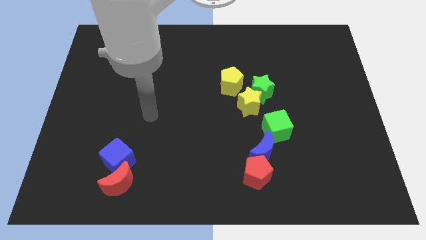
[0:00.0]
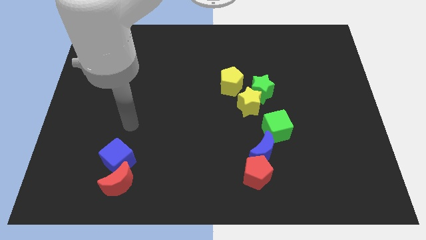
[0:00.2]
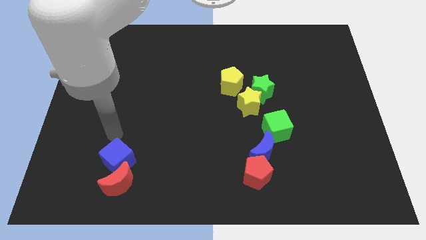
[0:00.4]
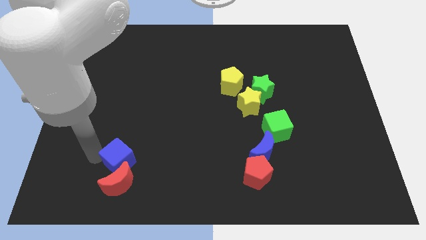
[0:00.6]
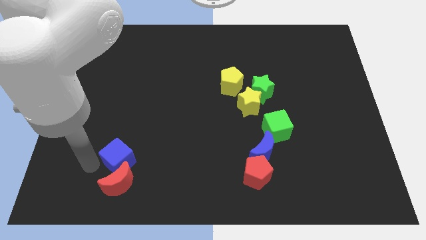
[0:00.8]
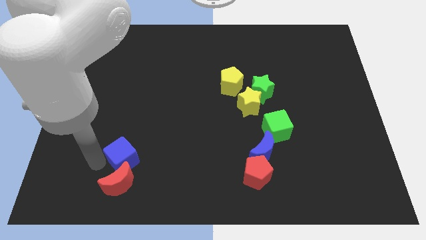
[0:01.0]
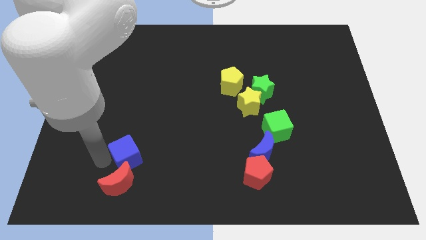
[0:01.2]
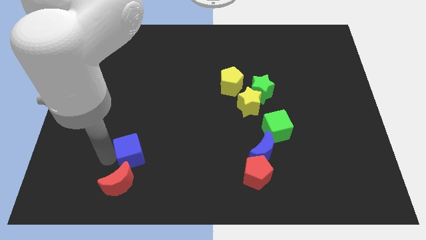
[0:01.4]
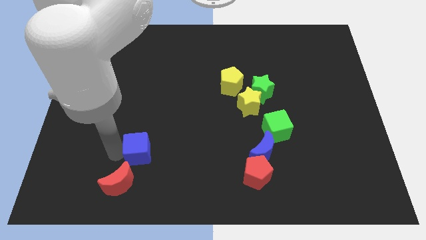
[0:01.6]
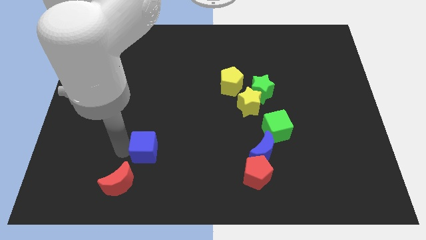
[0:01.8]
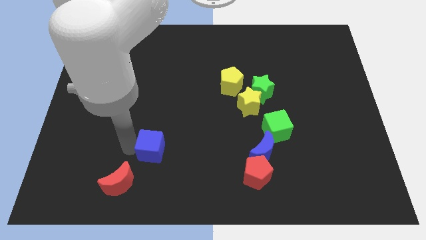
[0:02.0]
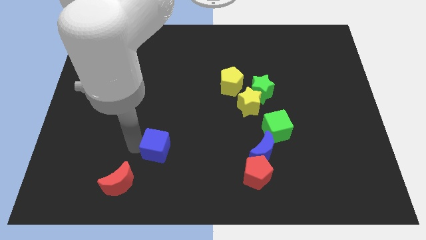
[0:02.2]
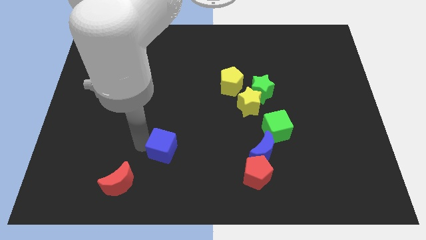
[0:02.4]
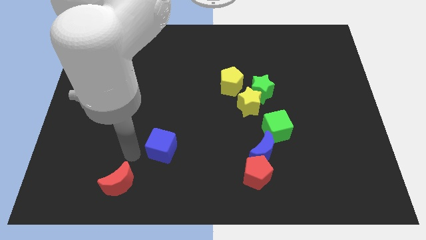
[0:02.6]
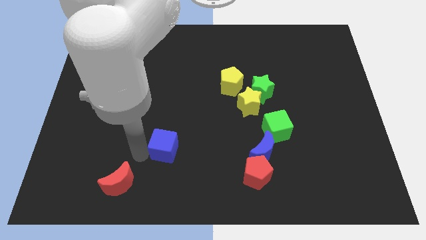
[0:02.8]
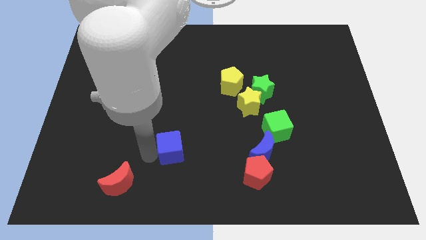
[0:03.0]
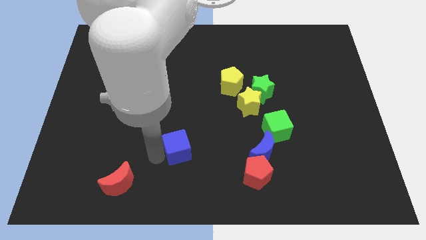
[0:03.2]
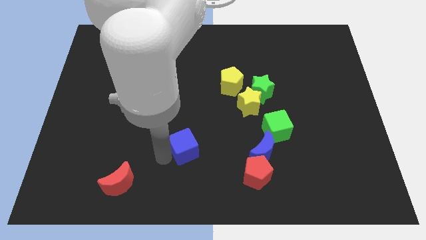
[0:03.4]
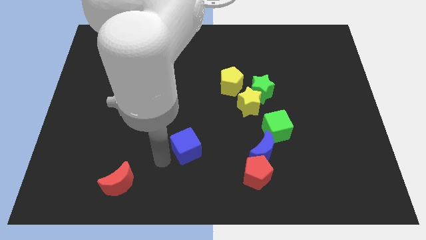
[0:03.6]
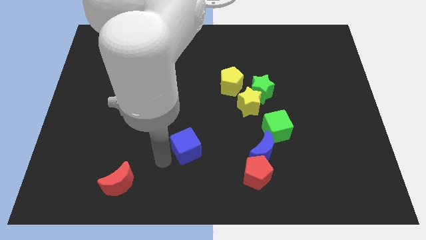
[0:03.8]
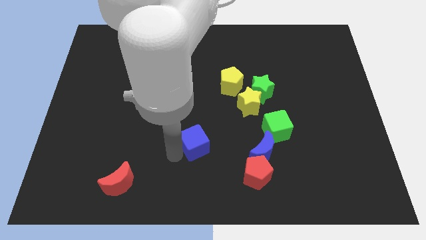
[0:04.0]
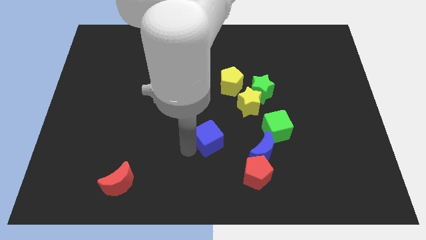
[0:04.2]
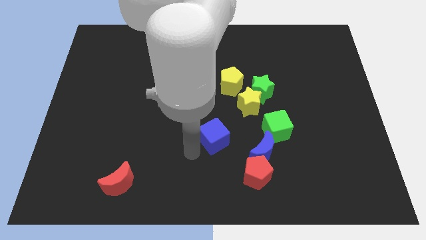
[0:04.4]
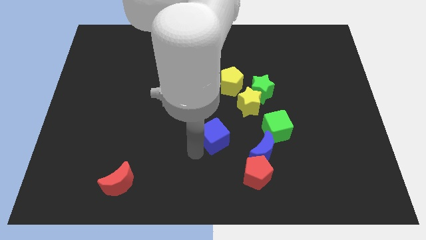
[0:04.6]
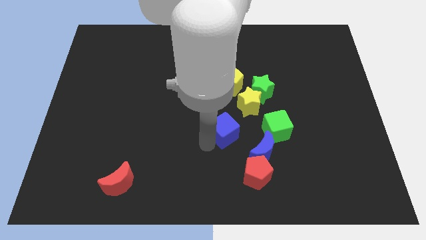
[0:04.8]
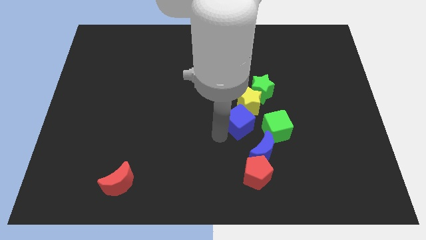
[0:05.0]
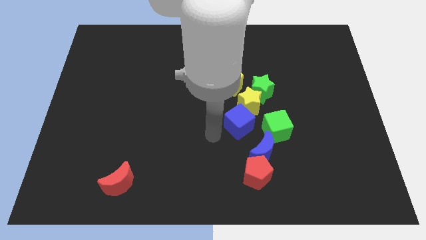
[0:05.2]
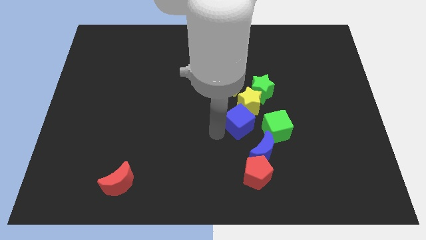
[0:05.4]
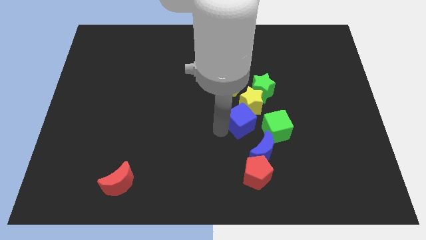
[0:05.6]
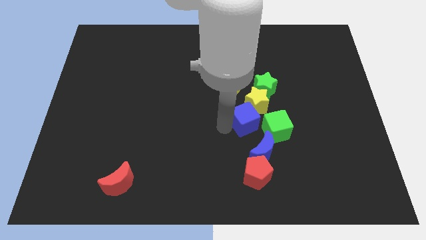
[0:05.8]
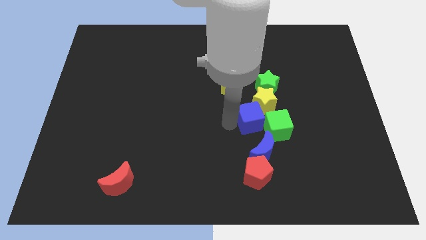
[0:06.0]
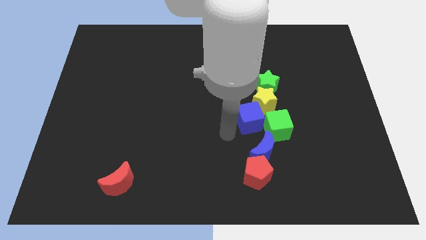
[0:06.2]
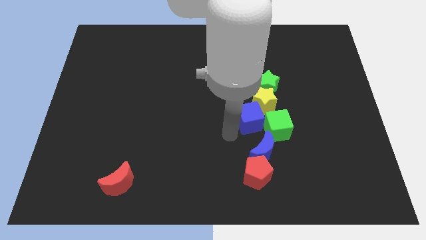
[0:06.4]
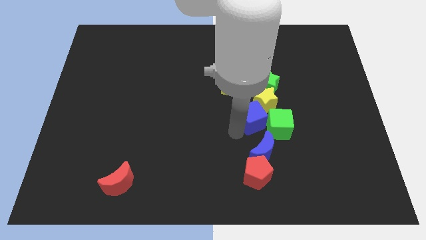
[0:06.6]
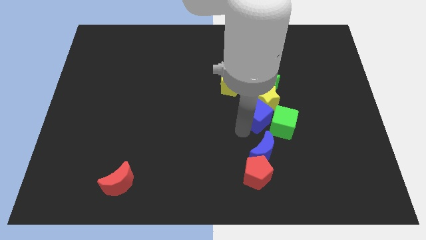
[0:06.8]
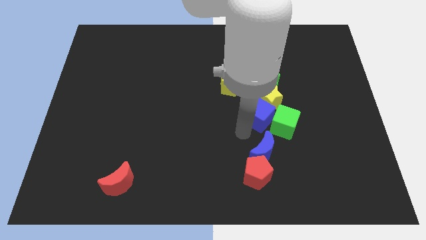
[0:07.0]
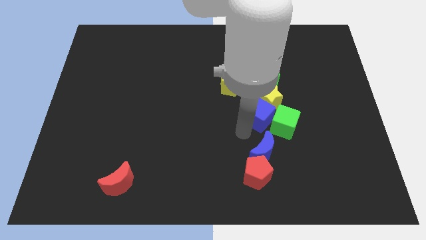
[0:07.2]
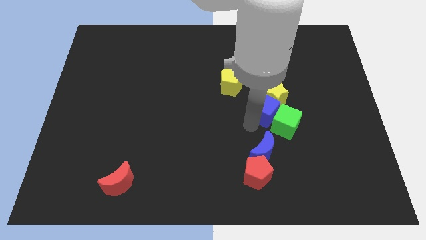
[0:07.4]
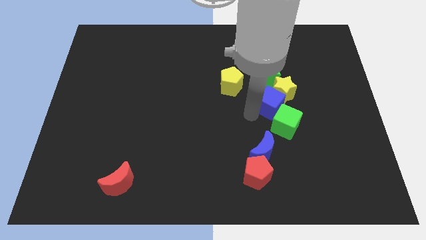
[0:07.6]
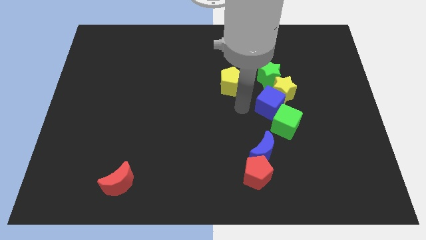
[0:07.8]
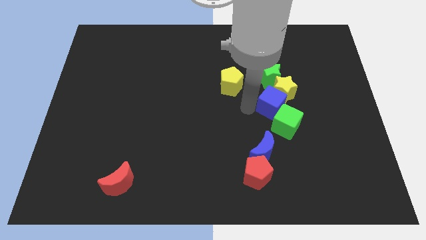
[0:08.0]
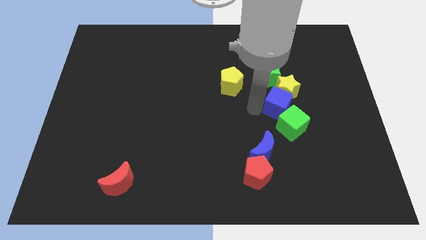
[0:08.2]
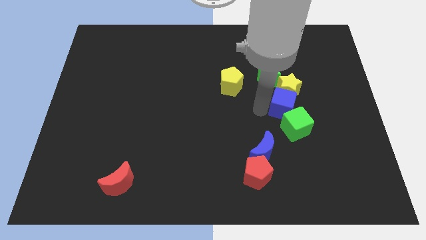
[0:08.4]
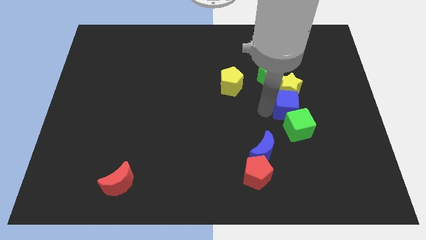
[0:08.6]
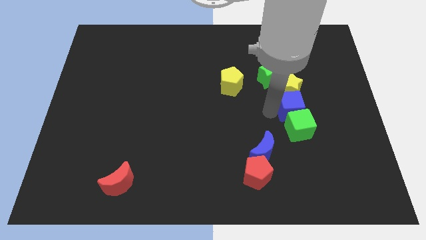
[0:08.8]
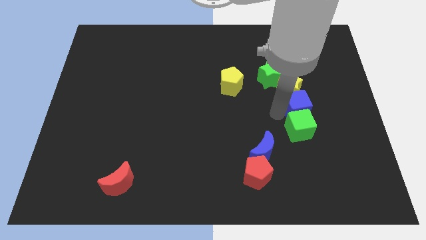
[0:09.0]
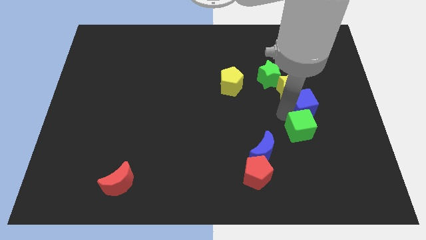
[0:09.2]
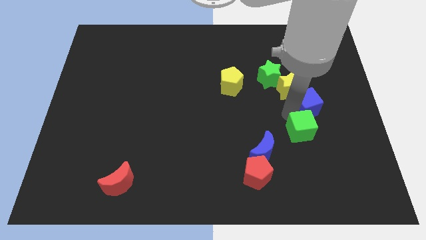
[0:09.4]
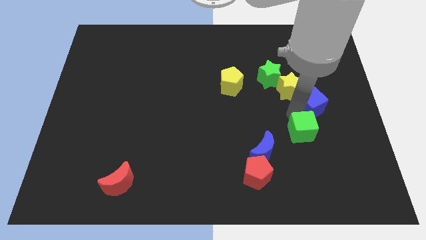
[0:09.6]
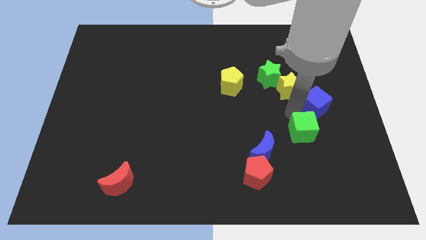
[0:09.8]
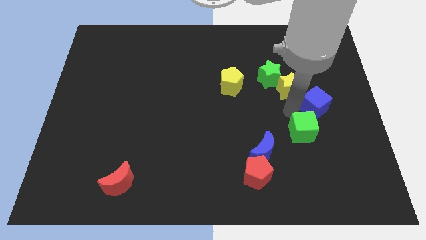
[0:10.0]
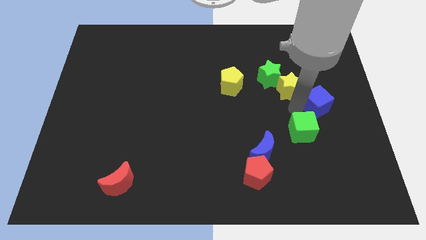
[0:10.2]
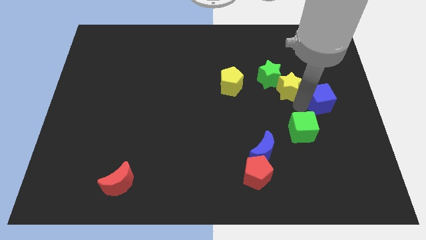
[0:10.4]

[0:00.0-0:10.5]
push the blue cube to the right side of the board

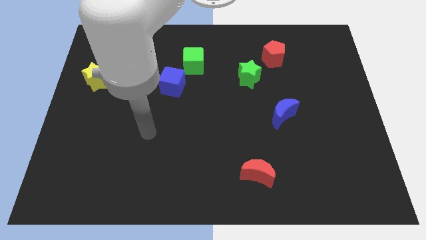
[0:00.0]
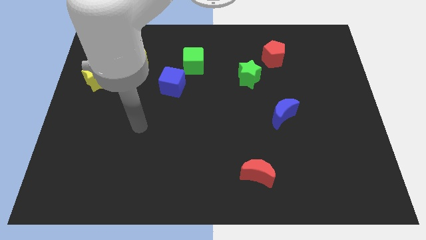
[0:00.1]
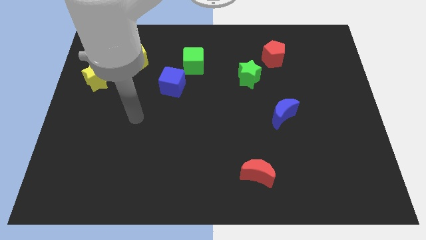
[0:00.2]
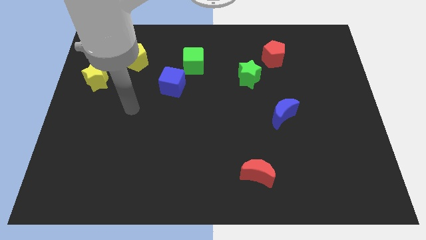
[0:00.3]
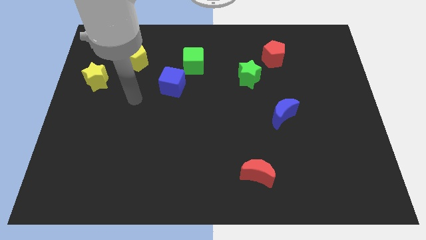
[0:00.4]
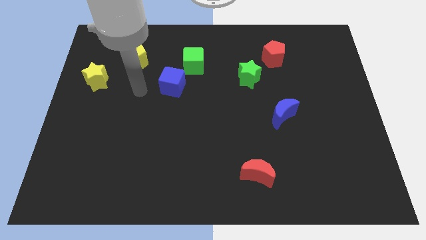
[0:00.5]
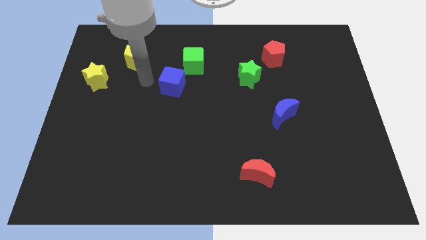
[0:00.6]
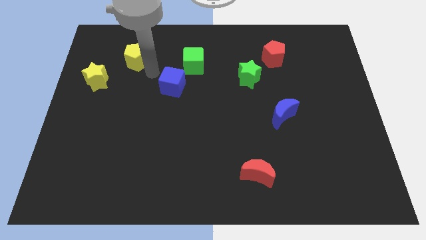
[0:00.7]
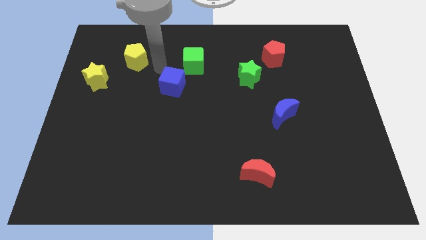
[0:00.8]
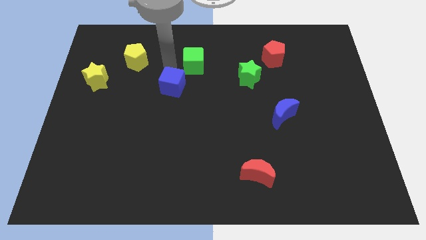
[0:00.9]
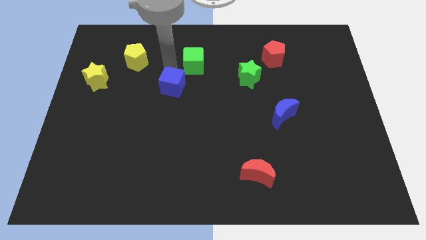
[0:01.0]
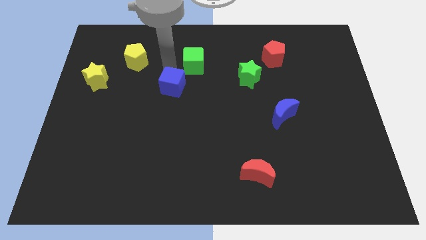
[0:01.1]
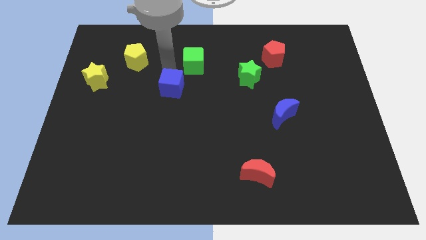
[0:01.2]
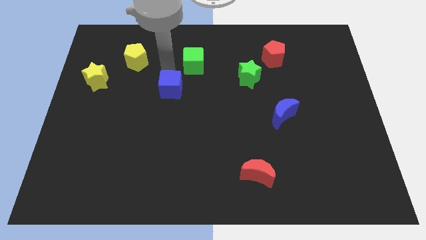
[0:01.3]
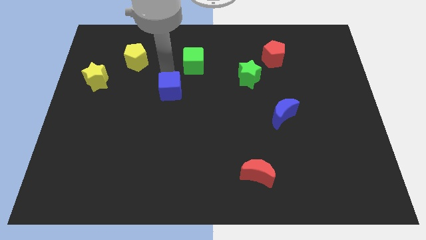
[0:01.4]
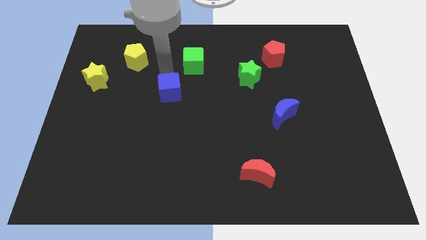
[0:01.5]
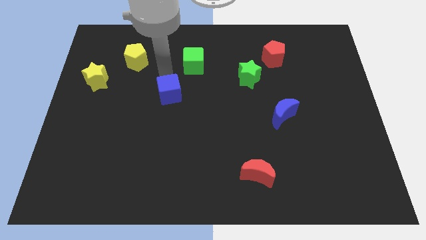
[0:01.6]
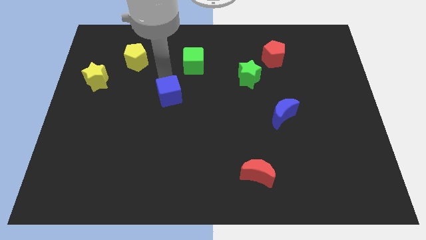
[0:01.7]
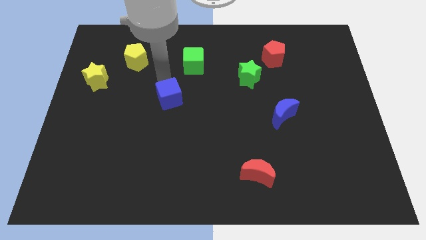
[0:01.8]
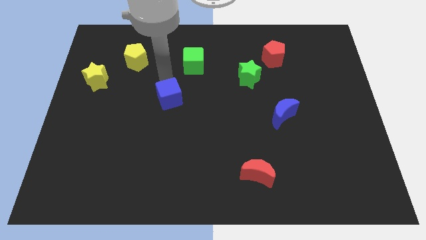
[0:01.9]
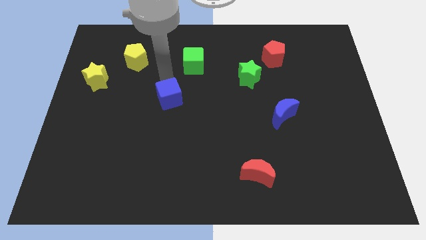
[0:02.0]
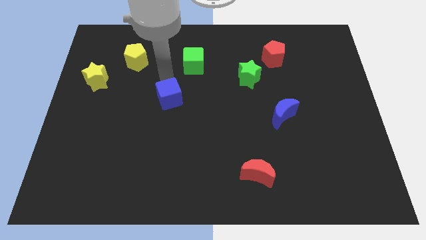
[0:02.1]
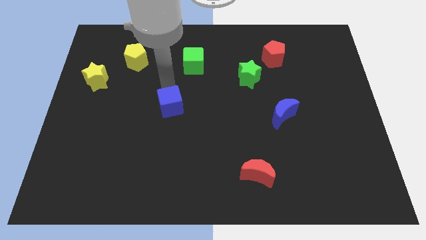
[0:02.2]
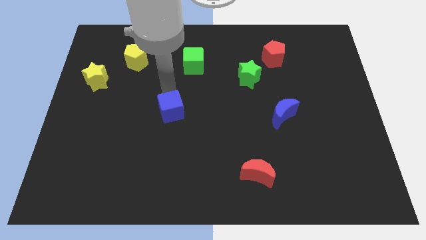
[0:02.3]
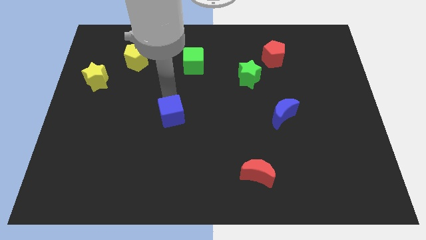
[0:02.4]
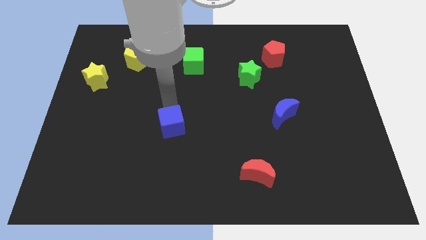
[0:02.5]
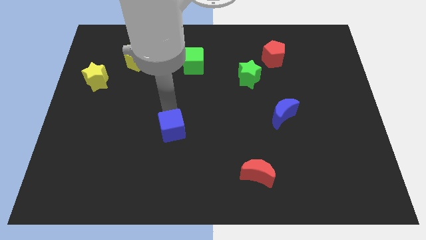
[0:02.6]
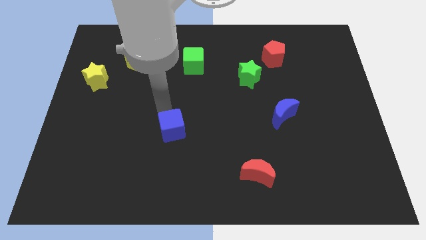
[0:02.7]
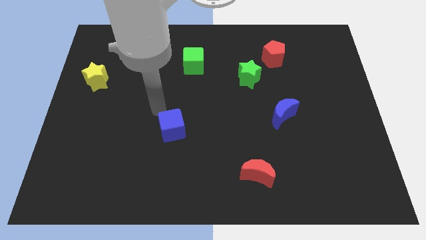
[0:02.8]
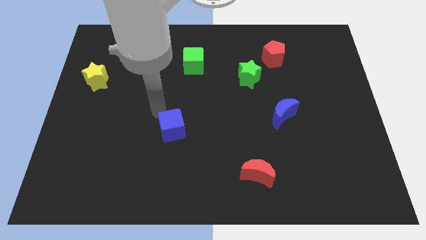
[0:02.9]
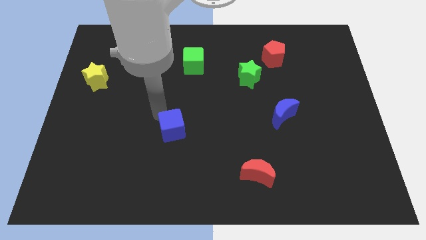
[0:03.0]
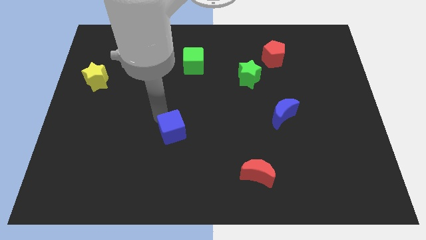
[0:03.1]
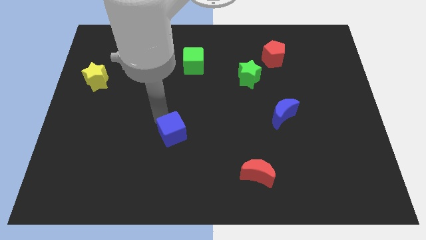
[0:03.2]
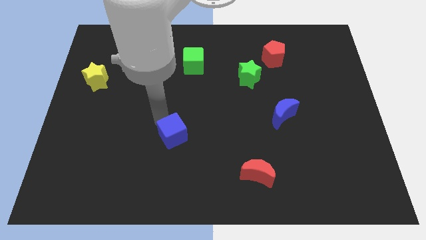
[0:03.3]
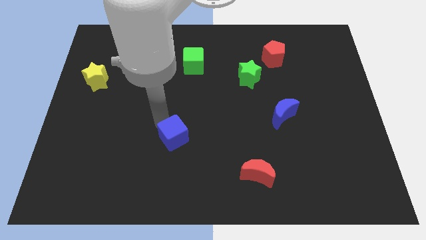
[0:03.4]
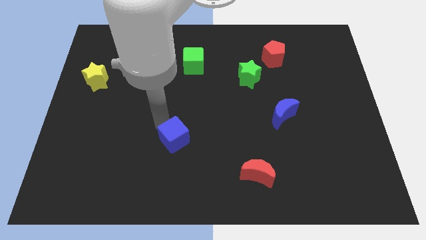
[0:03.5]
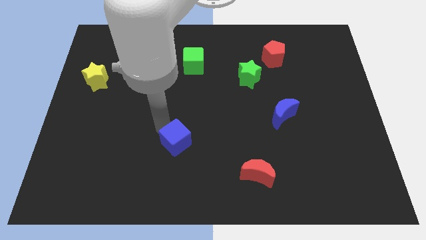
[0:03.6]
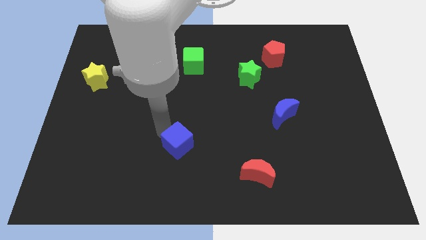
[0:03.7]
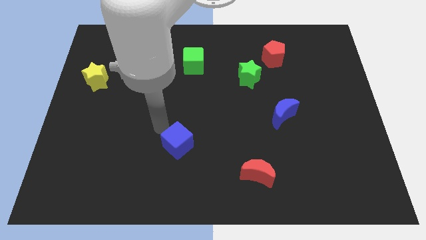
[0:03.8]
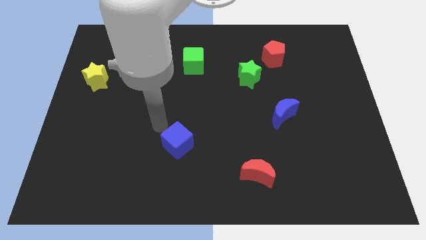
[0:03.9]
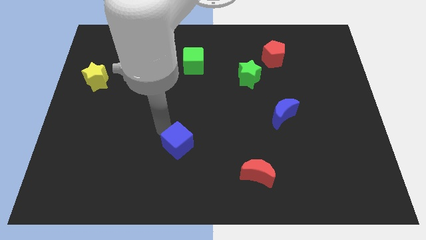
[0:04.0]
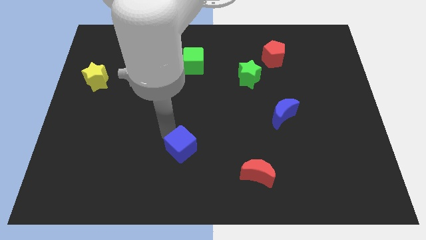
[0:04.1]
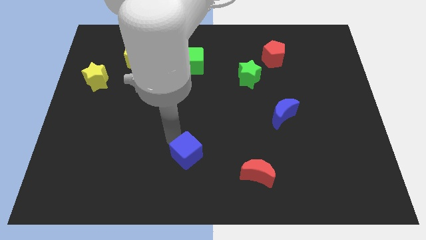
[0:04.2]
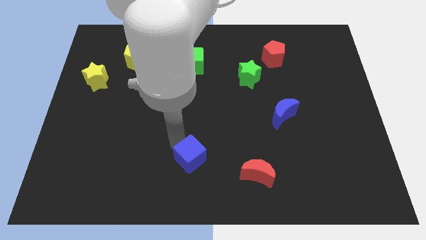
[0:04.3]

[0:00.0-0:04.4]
slide the blue cube to the bottom side
